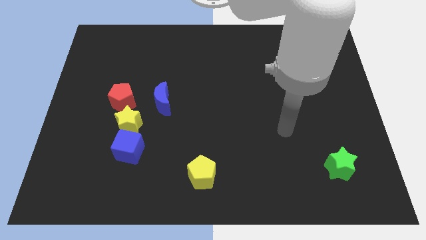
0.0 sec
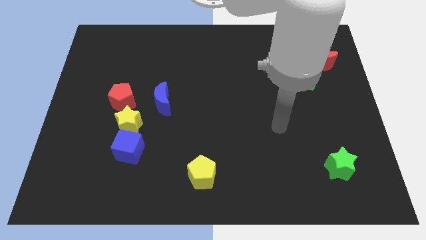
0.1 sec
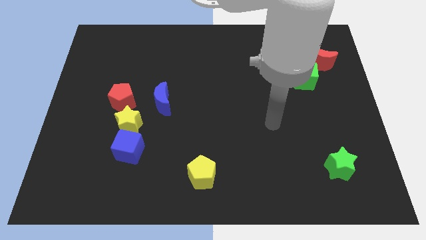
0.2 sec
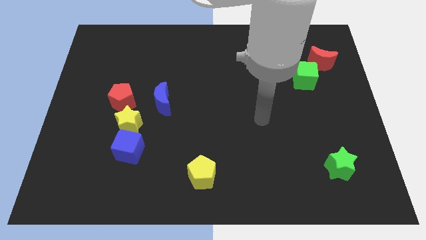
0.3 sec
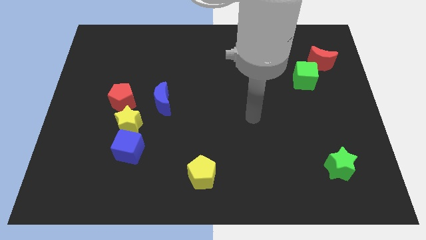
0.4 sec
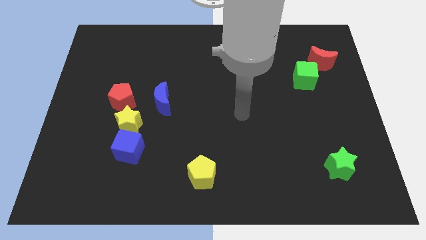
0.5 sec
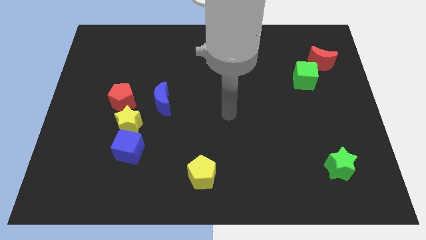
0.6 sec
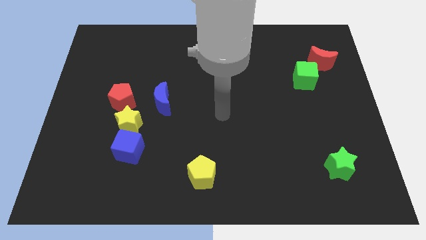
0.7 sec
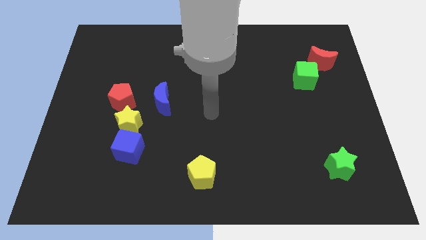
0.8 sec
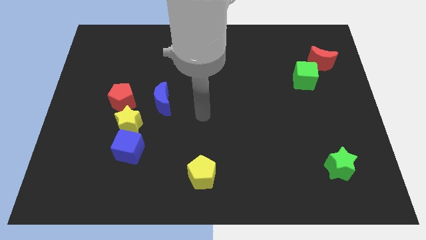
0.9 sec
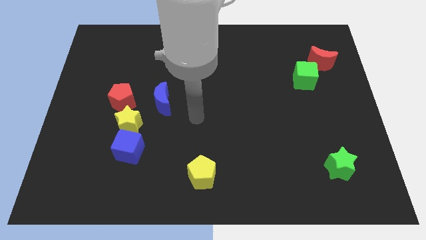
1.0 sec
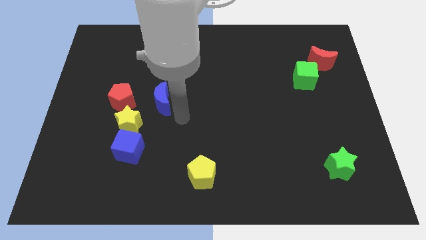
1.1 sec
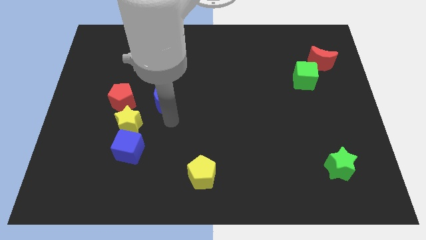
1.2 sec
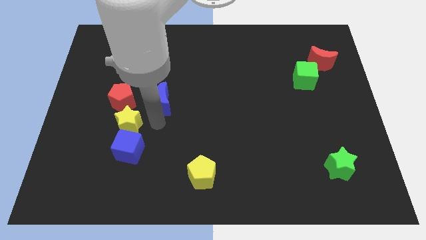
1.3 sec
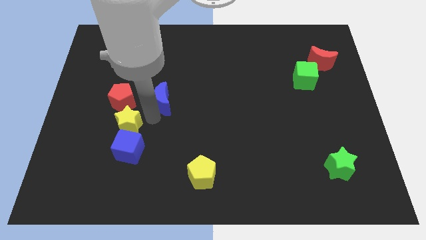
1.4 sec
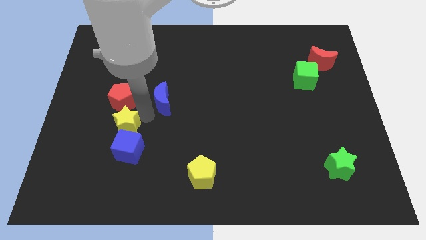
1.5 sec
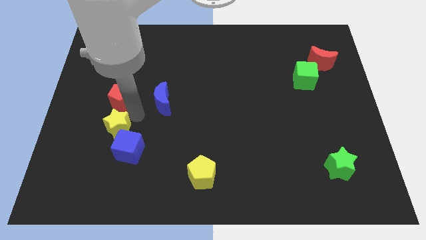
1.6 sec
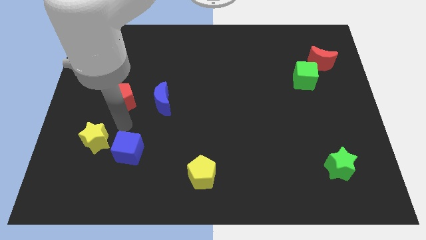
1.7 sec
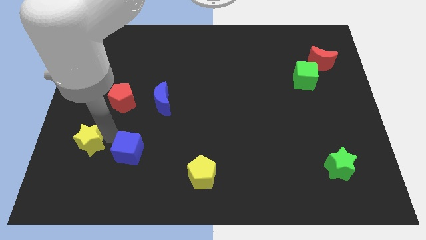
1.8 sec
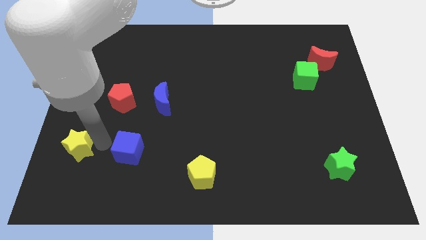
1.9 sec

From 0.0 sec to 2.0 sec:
pull the blue cube apart from the yellow star

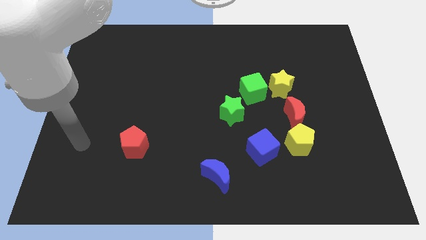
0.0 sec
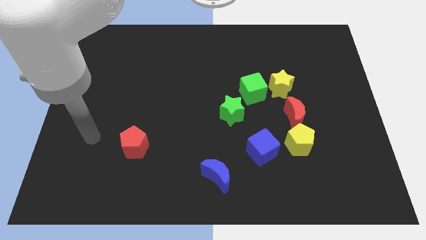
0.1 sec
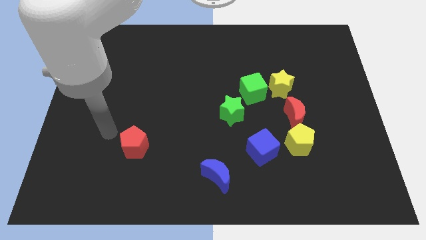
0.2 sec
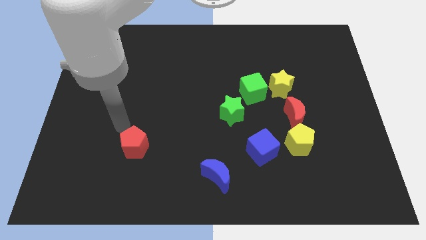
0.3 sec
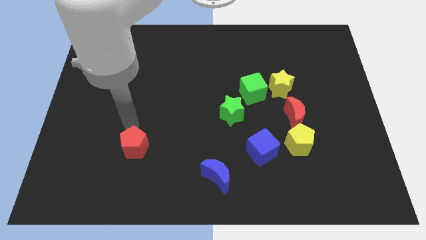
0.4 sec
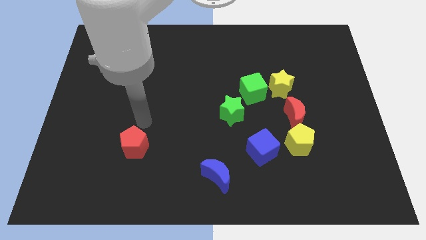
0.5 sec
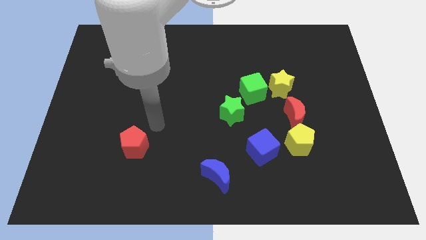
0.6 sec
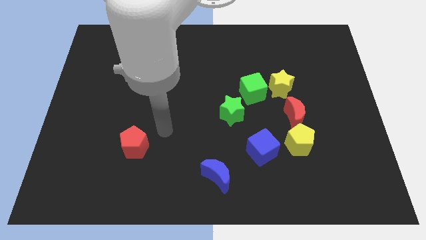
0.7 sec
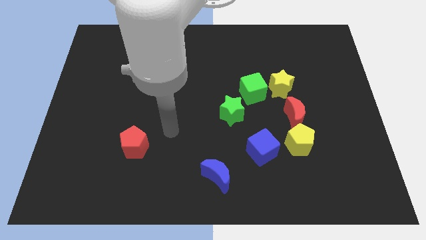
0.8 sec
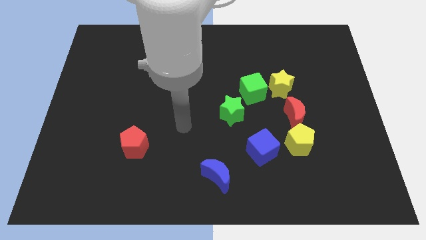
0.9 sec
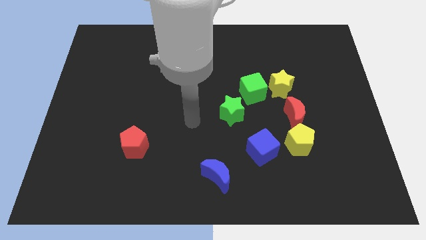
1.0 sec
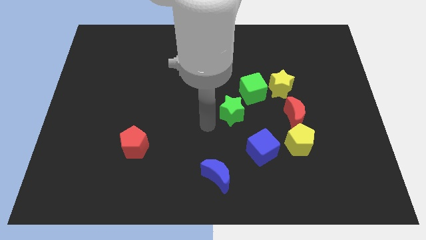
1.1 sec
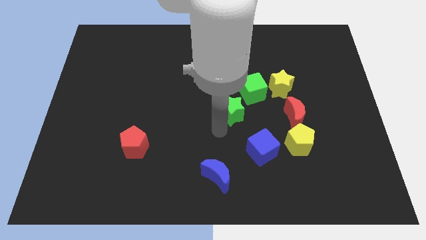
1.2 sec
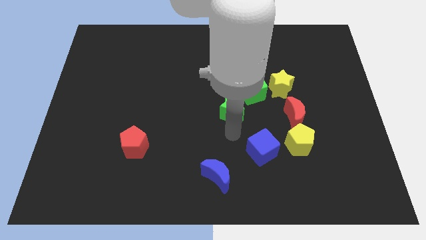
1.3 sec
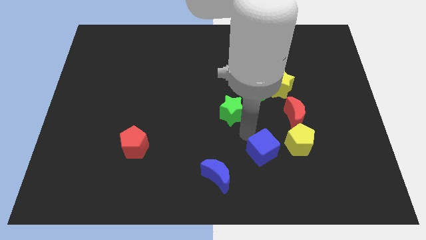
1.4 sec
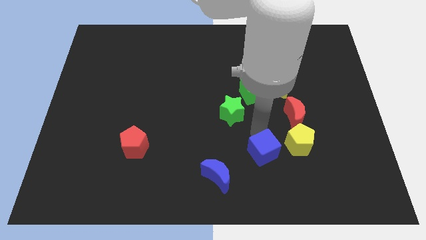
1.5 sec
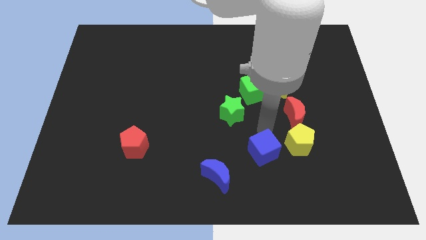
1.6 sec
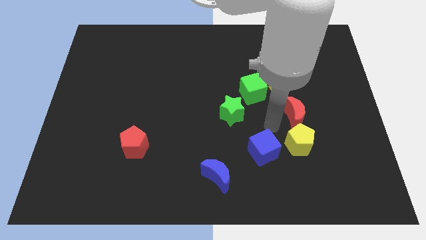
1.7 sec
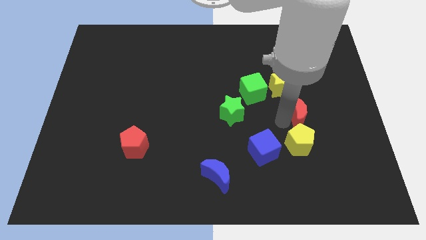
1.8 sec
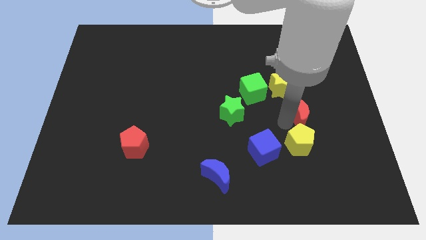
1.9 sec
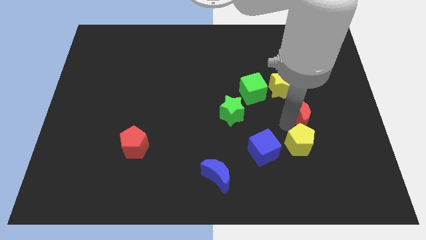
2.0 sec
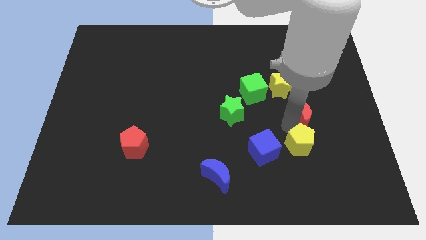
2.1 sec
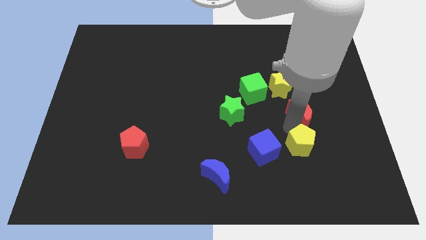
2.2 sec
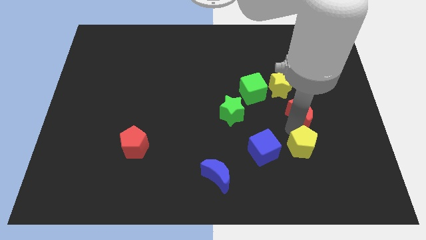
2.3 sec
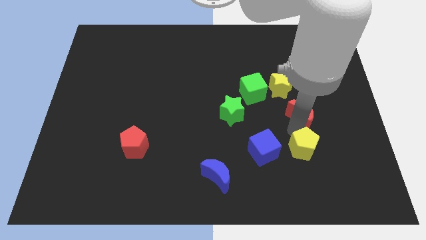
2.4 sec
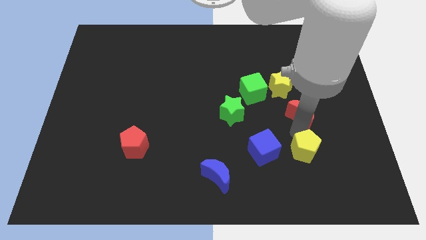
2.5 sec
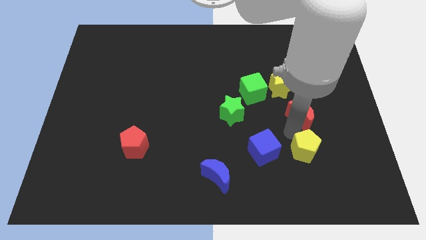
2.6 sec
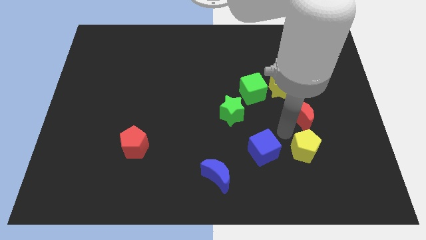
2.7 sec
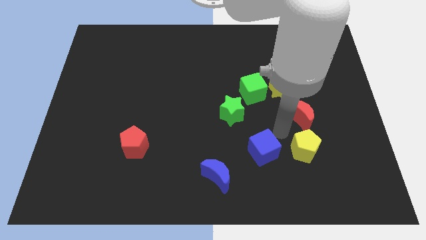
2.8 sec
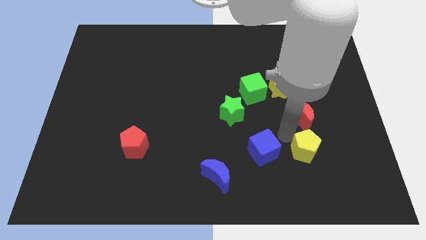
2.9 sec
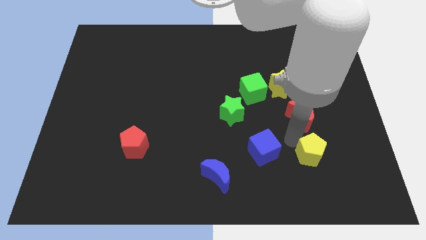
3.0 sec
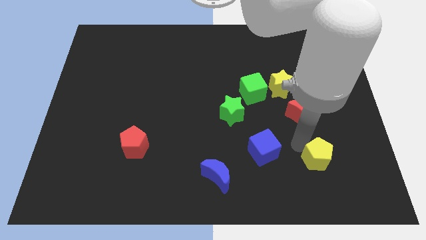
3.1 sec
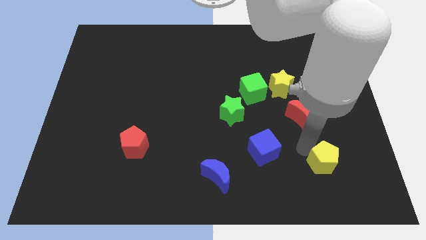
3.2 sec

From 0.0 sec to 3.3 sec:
move the yellow pentagon away from the red moon and blue cube

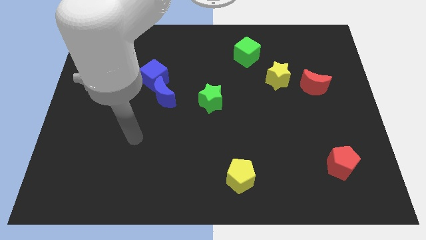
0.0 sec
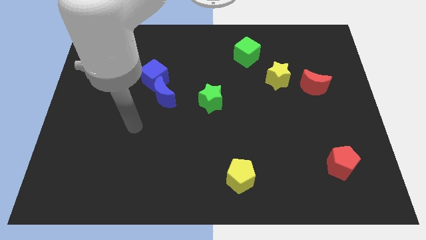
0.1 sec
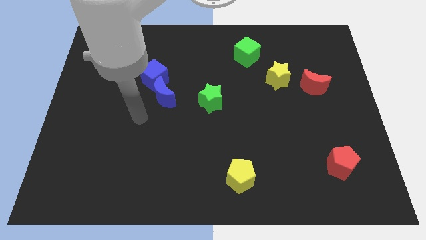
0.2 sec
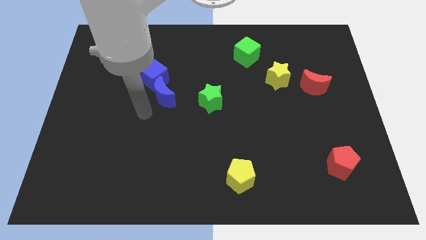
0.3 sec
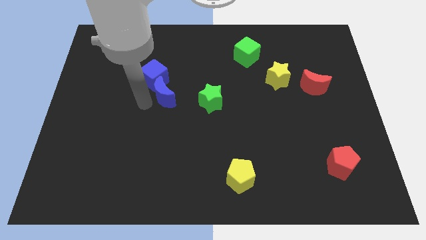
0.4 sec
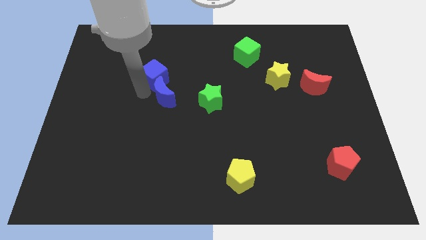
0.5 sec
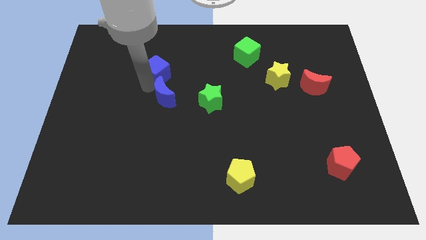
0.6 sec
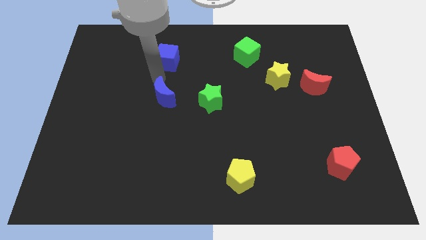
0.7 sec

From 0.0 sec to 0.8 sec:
move the blue moon away from the blue cube

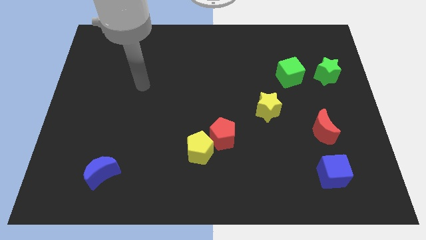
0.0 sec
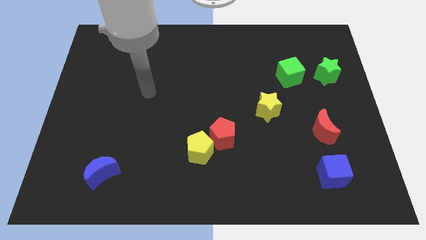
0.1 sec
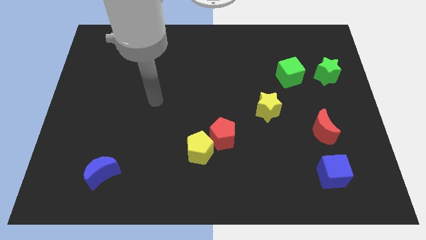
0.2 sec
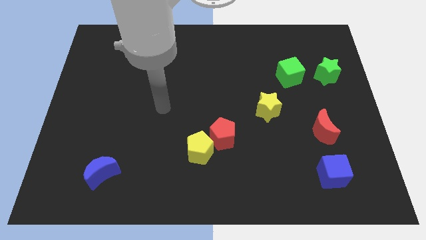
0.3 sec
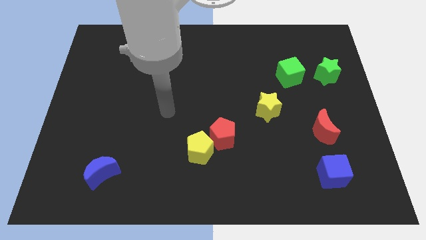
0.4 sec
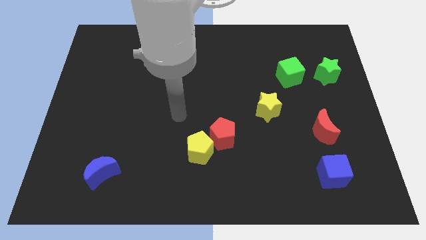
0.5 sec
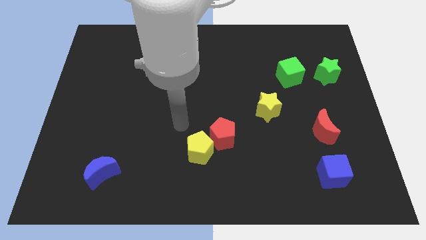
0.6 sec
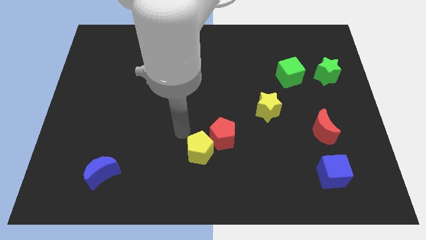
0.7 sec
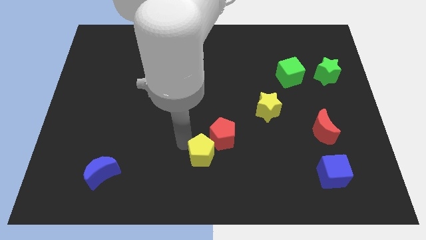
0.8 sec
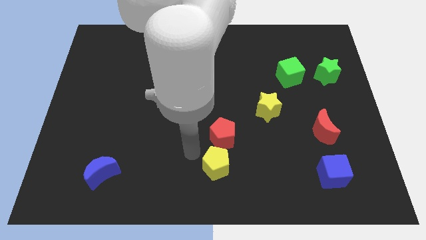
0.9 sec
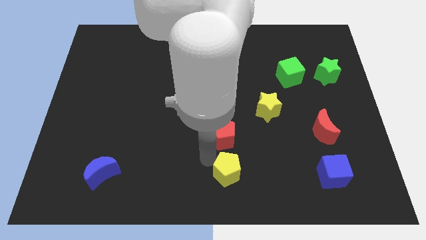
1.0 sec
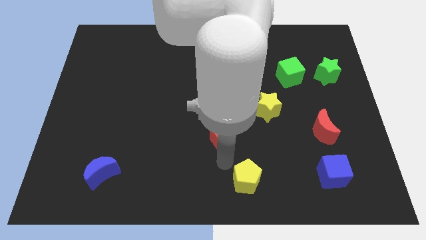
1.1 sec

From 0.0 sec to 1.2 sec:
pull the red pentagon apart from the yellow pentagon

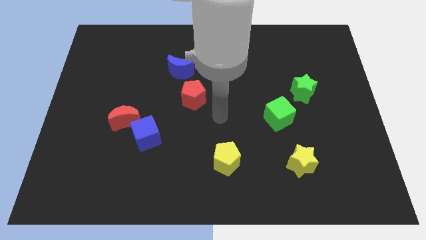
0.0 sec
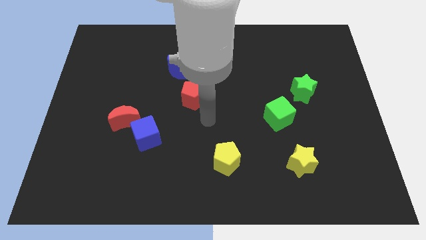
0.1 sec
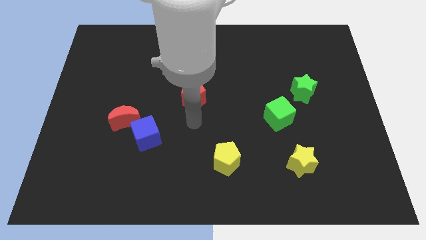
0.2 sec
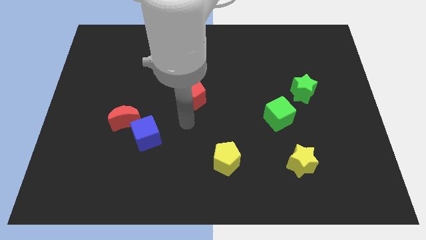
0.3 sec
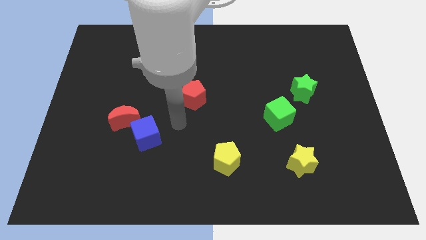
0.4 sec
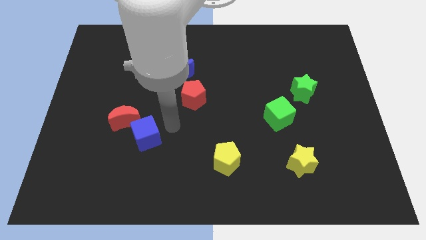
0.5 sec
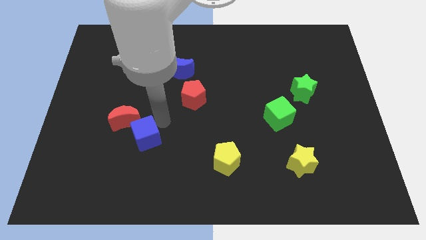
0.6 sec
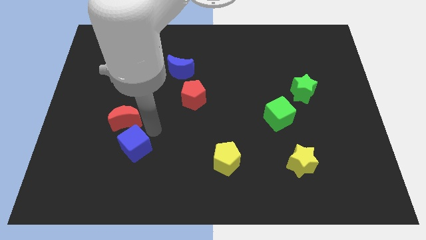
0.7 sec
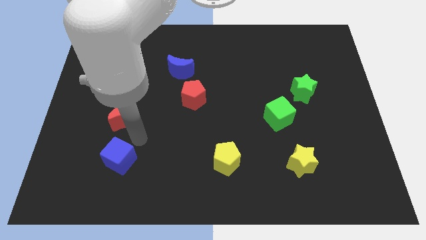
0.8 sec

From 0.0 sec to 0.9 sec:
separate the red moon from the blue cube

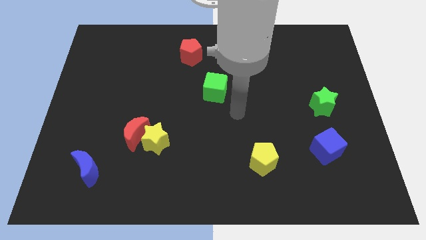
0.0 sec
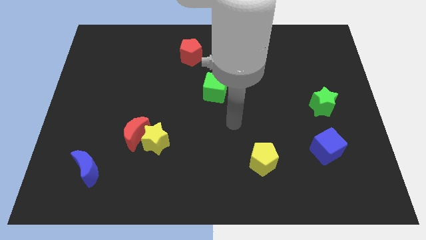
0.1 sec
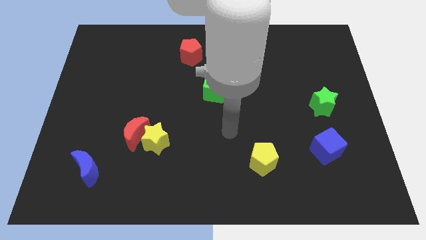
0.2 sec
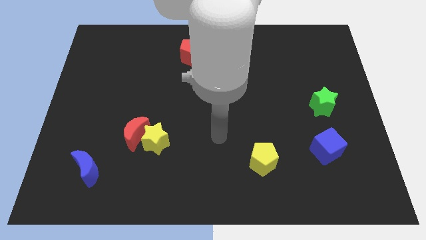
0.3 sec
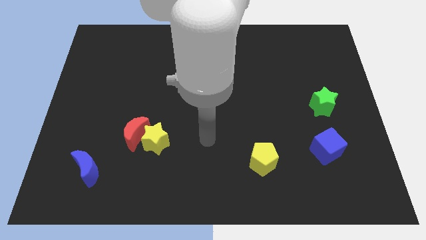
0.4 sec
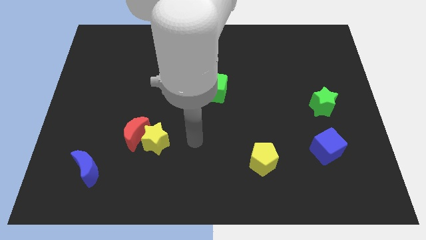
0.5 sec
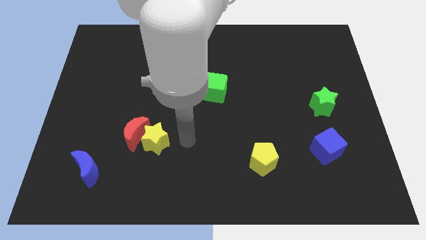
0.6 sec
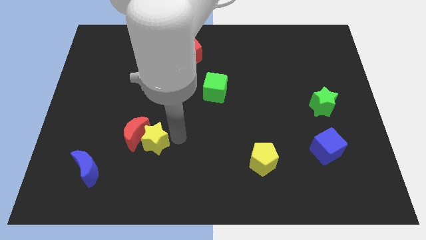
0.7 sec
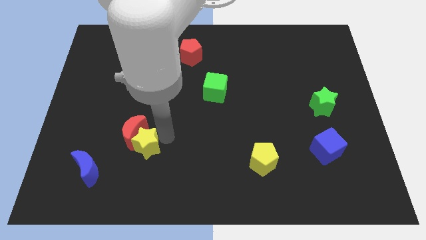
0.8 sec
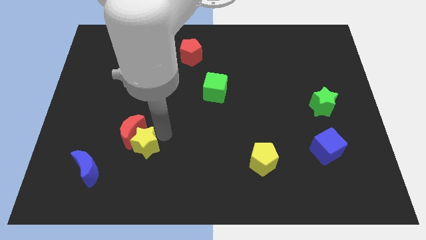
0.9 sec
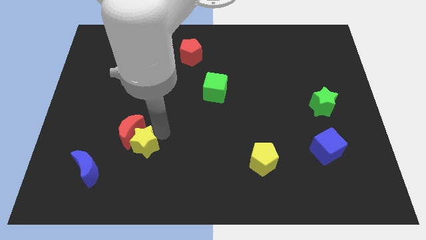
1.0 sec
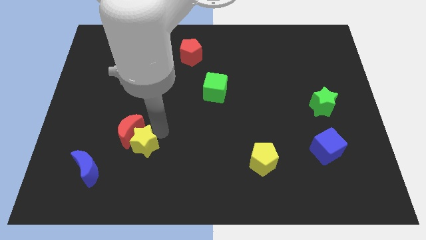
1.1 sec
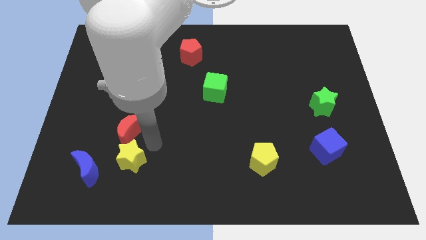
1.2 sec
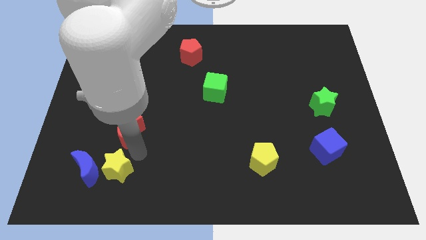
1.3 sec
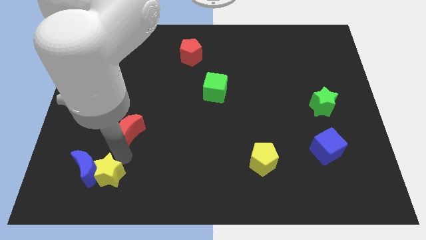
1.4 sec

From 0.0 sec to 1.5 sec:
move the red moon away from the yellow star
